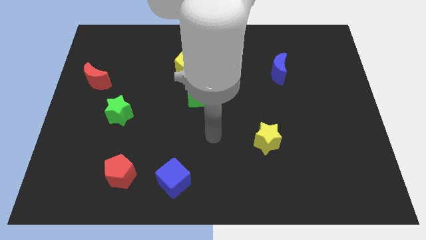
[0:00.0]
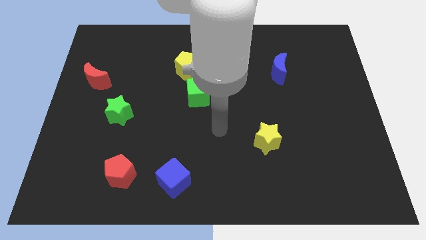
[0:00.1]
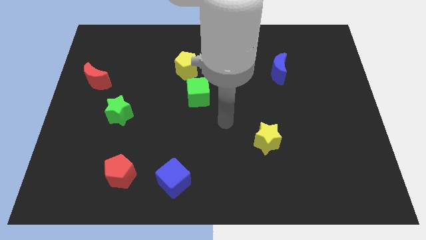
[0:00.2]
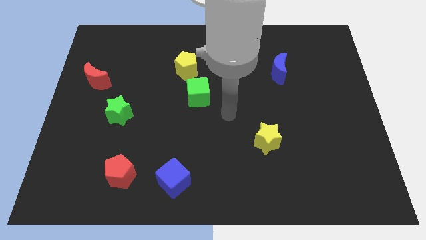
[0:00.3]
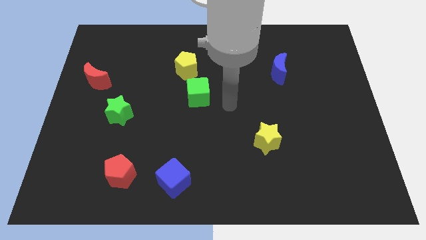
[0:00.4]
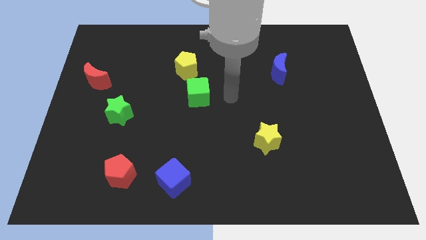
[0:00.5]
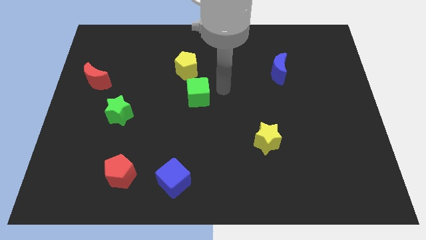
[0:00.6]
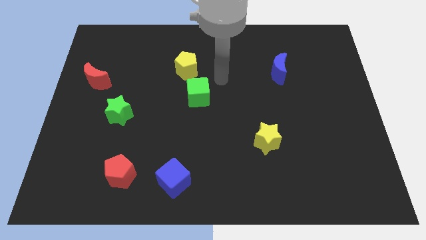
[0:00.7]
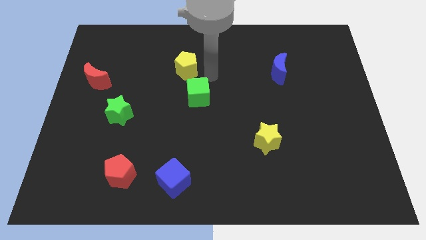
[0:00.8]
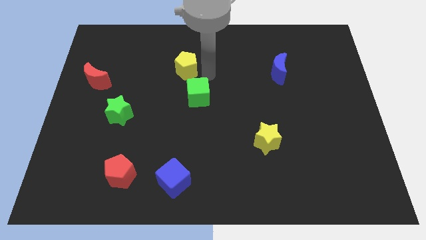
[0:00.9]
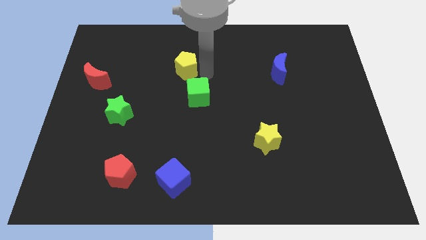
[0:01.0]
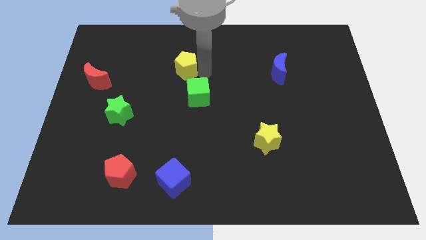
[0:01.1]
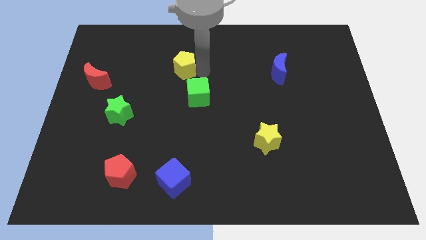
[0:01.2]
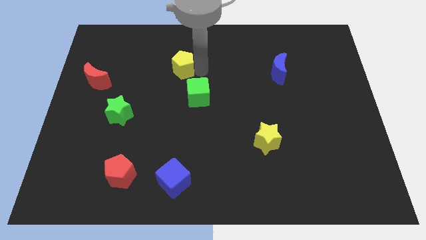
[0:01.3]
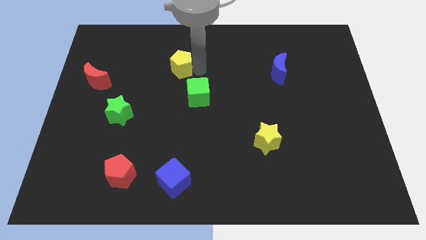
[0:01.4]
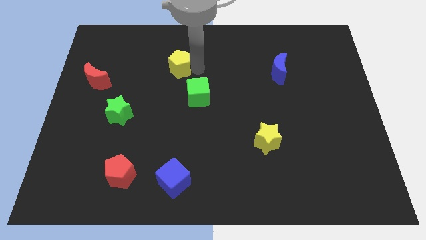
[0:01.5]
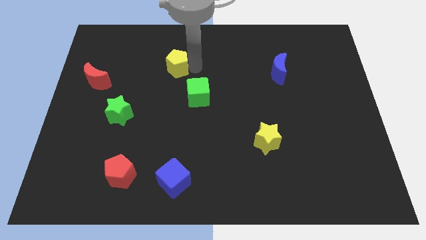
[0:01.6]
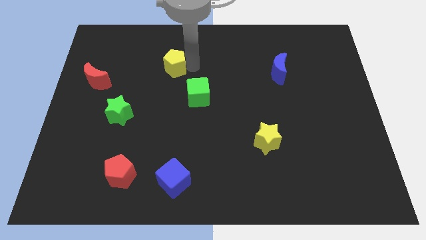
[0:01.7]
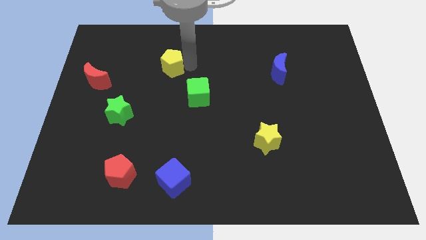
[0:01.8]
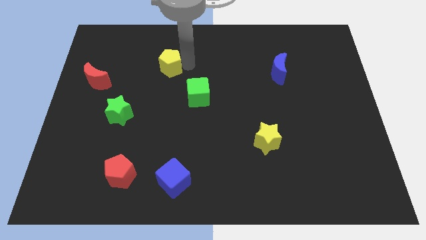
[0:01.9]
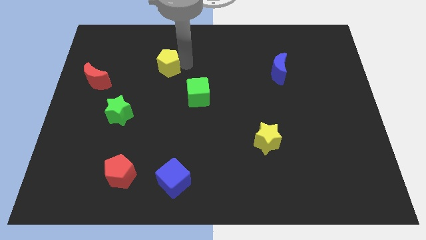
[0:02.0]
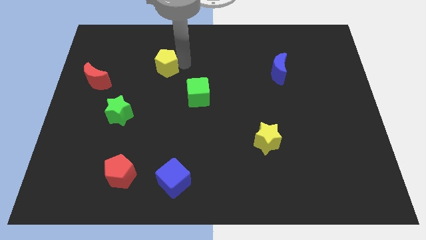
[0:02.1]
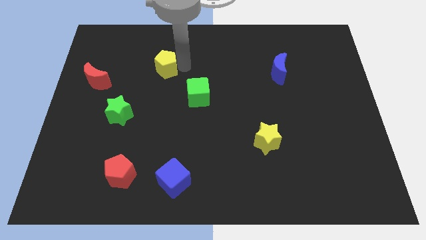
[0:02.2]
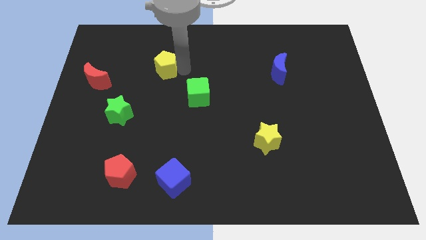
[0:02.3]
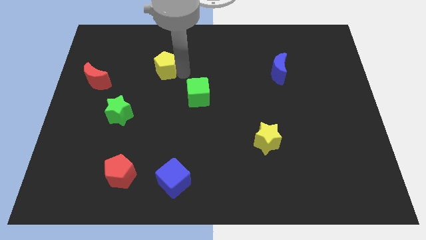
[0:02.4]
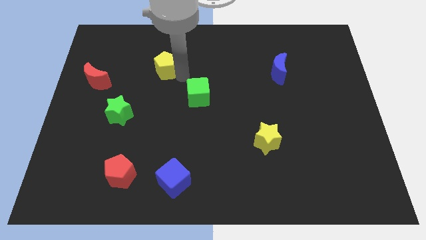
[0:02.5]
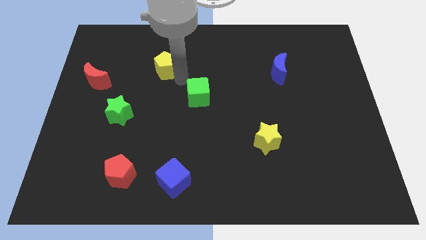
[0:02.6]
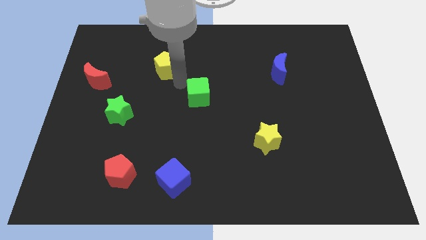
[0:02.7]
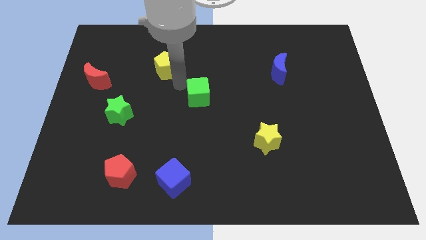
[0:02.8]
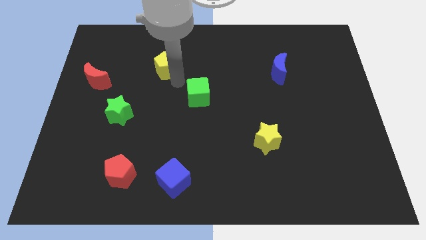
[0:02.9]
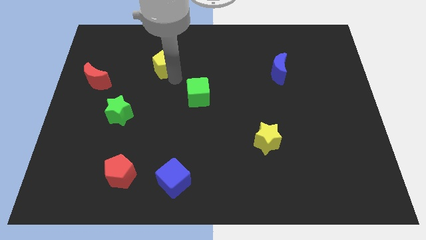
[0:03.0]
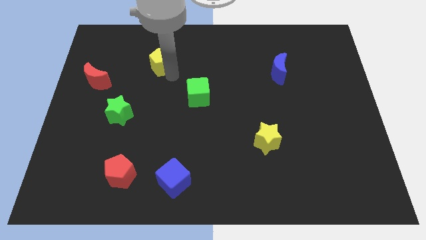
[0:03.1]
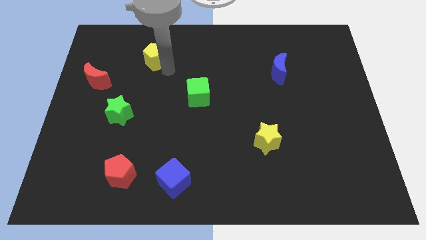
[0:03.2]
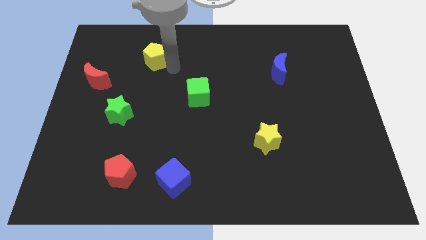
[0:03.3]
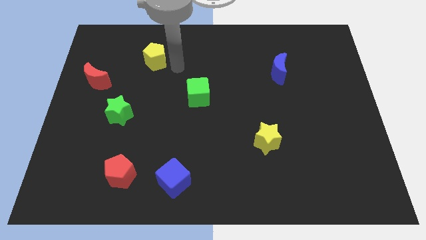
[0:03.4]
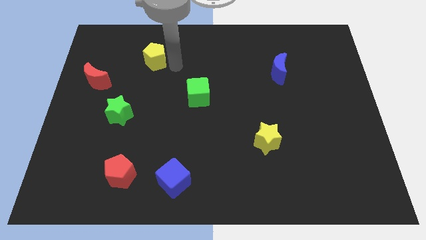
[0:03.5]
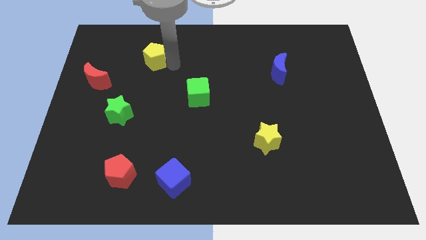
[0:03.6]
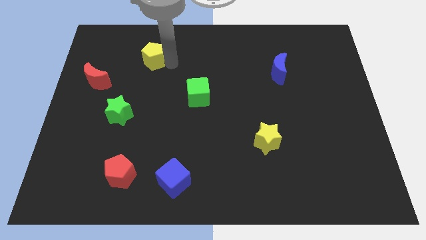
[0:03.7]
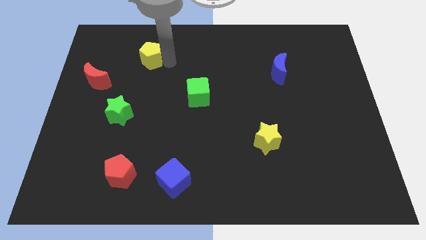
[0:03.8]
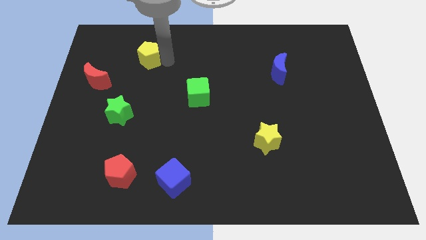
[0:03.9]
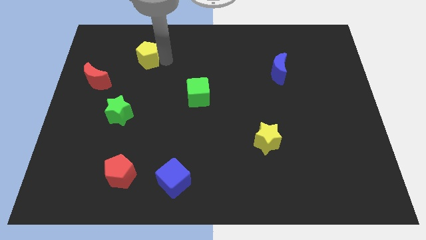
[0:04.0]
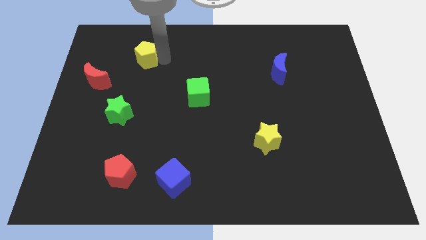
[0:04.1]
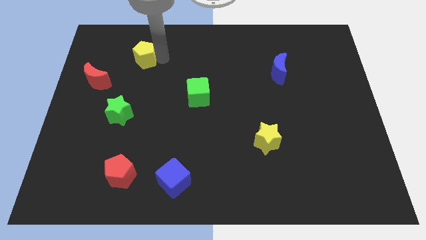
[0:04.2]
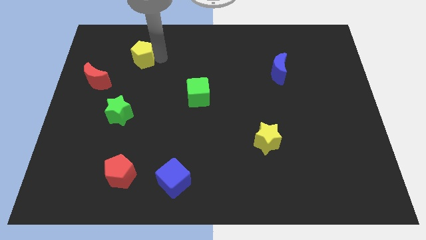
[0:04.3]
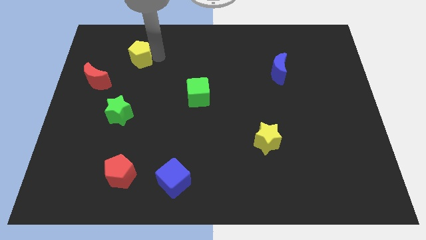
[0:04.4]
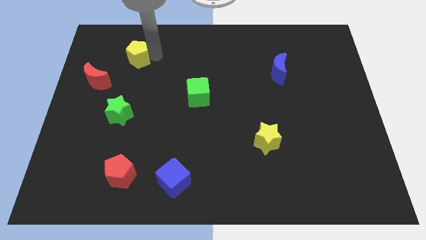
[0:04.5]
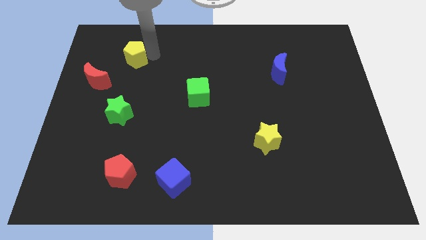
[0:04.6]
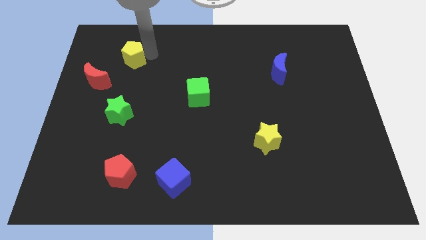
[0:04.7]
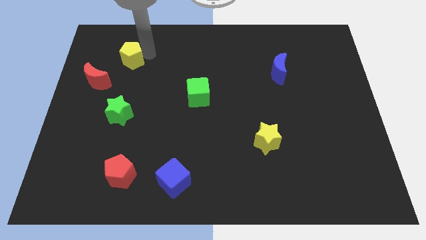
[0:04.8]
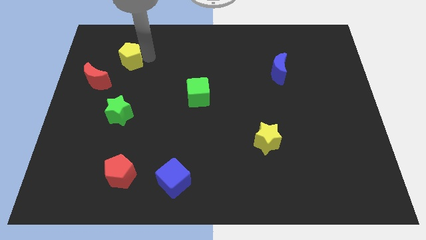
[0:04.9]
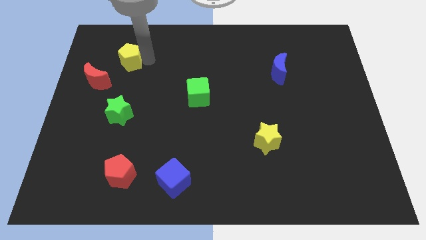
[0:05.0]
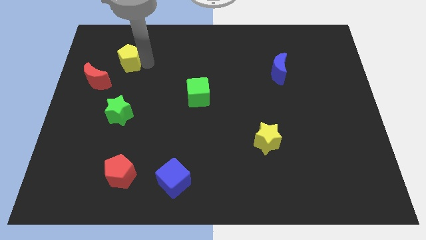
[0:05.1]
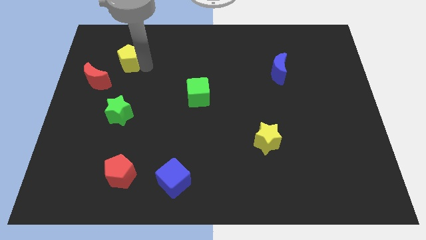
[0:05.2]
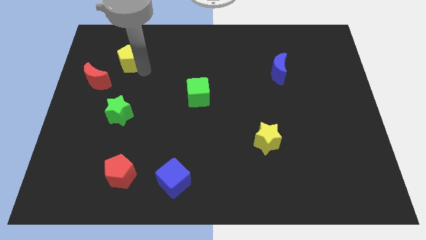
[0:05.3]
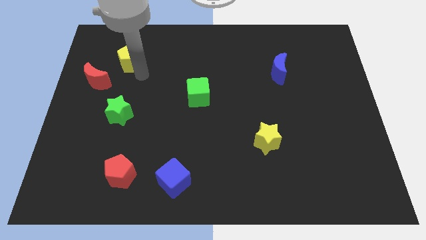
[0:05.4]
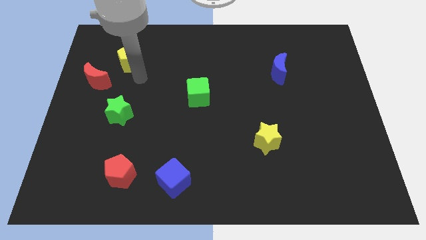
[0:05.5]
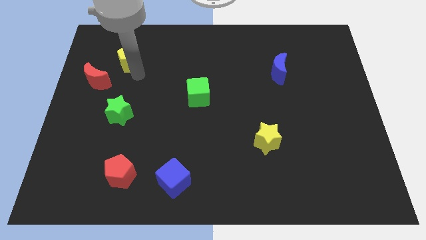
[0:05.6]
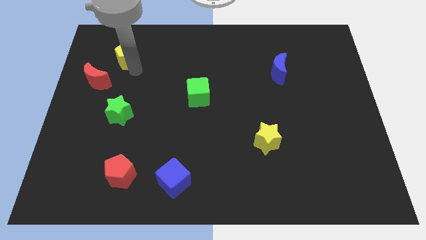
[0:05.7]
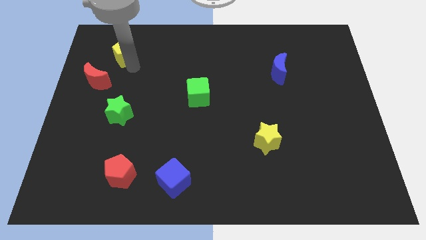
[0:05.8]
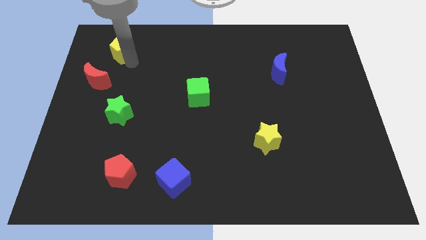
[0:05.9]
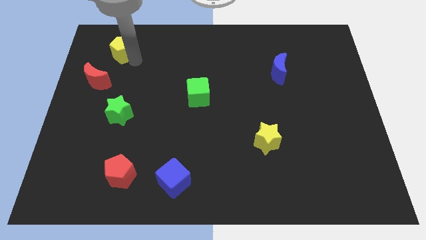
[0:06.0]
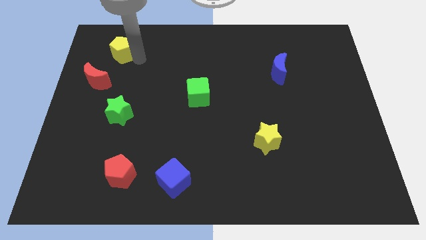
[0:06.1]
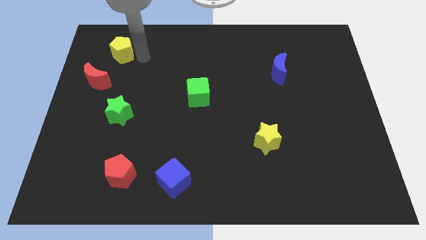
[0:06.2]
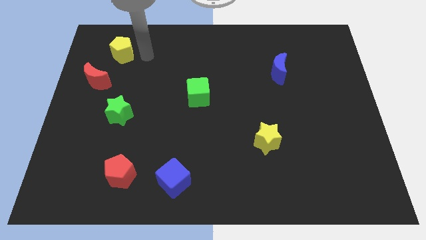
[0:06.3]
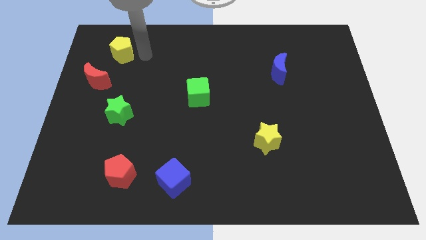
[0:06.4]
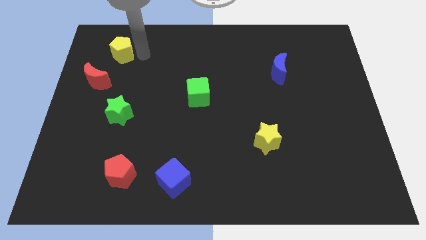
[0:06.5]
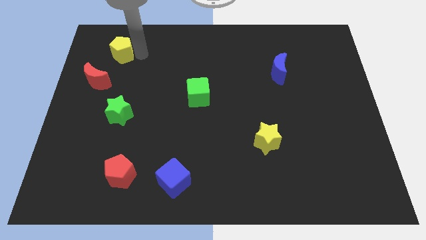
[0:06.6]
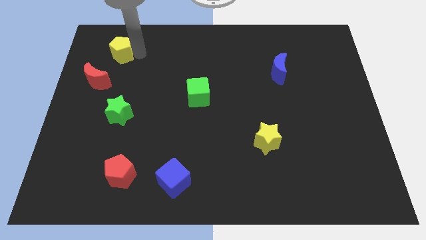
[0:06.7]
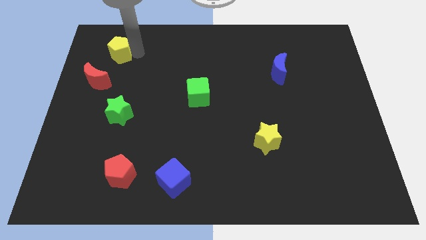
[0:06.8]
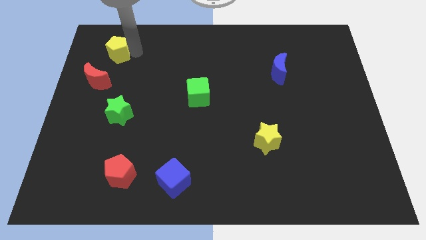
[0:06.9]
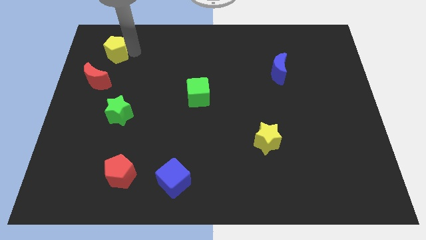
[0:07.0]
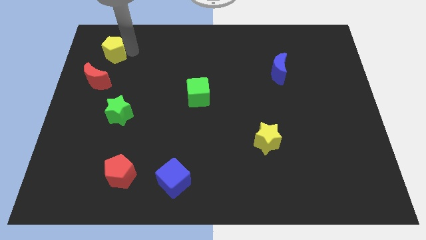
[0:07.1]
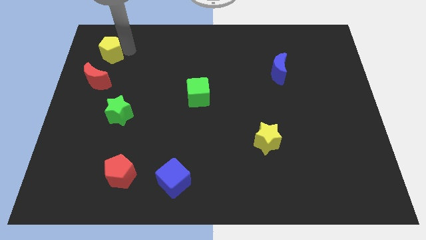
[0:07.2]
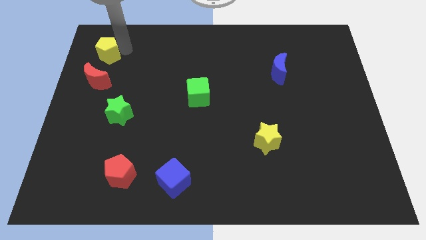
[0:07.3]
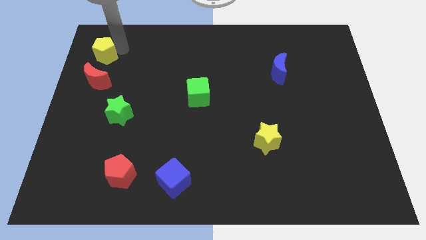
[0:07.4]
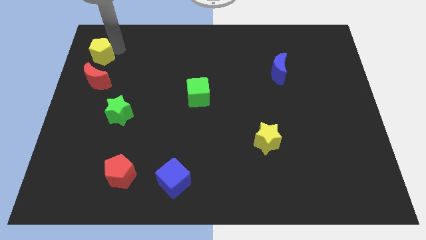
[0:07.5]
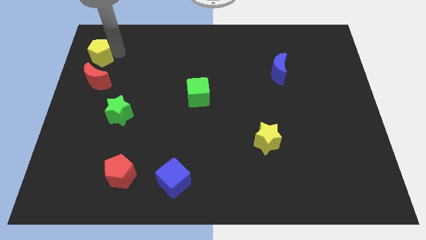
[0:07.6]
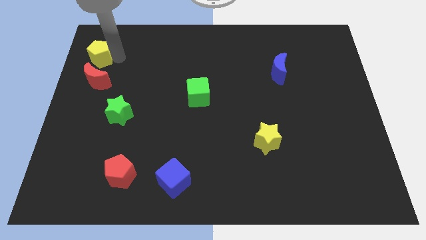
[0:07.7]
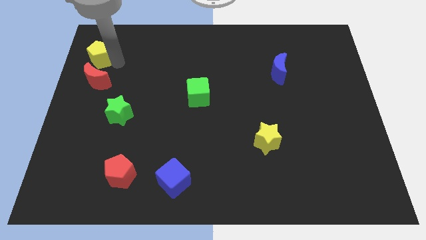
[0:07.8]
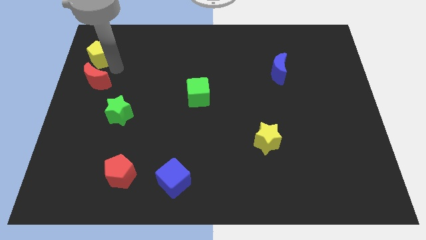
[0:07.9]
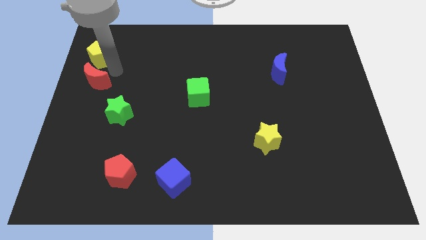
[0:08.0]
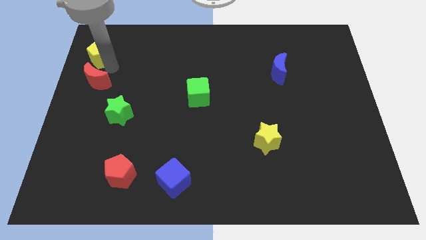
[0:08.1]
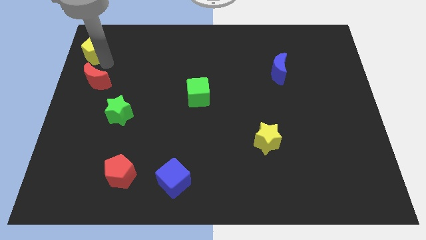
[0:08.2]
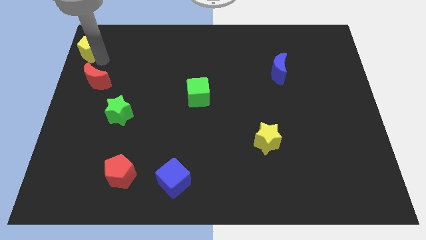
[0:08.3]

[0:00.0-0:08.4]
push the yellow pentagon to the top left corner
